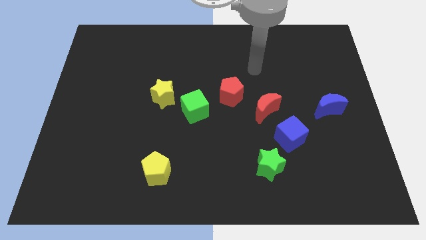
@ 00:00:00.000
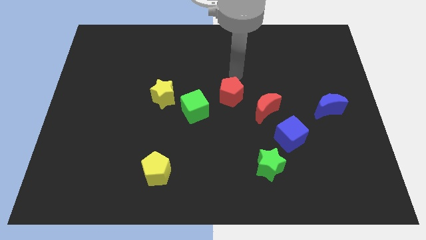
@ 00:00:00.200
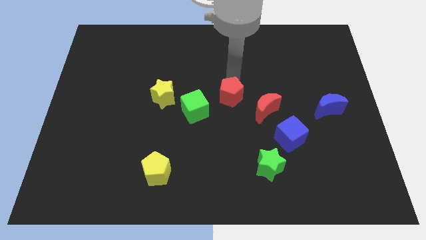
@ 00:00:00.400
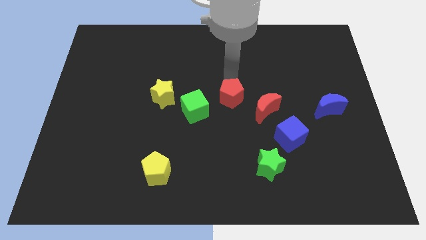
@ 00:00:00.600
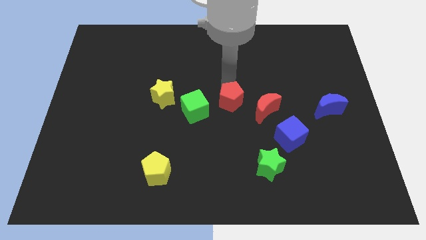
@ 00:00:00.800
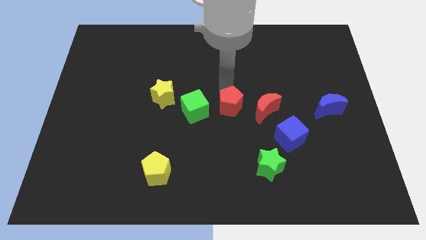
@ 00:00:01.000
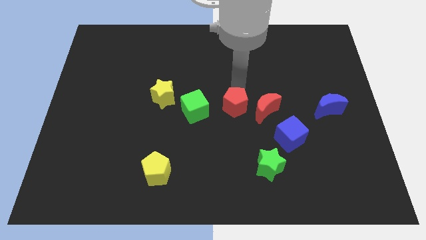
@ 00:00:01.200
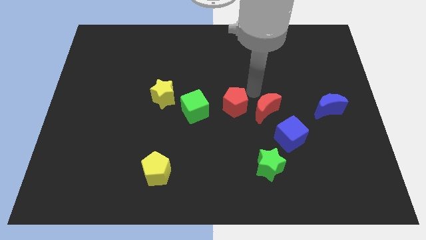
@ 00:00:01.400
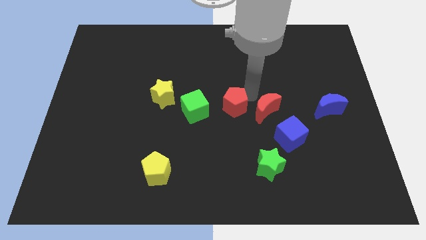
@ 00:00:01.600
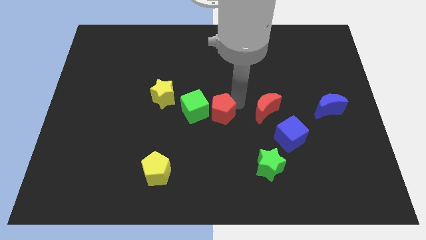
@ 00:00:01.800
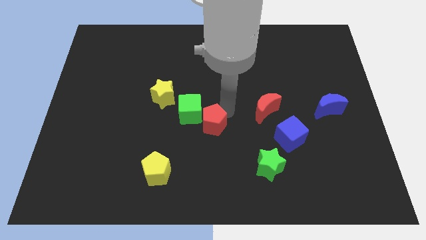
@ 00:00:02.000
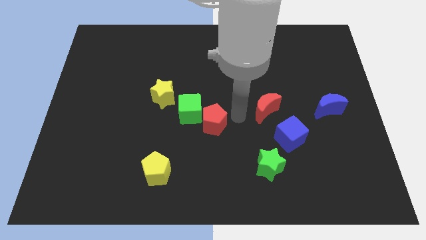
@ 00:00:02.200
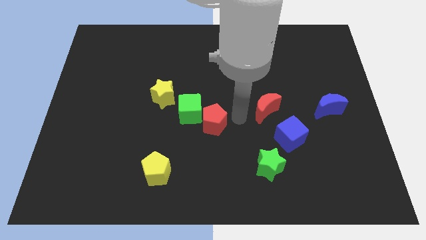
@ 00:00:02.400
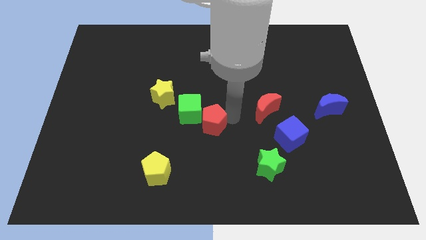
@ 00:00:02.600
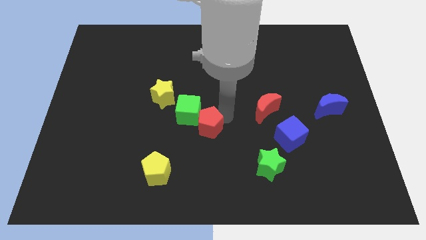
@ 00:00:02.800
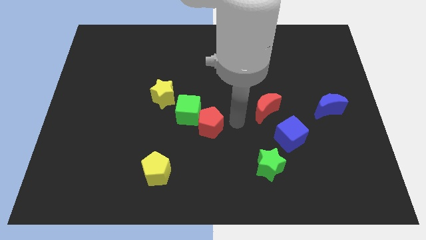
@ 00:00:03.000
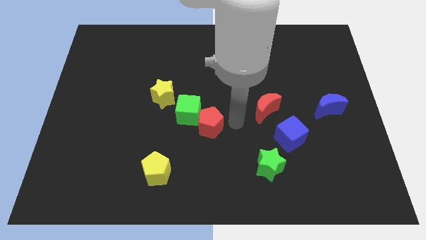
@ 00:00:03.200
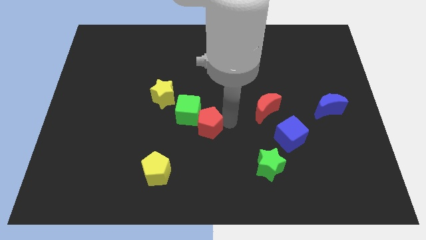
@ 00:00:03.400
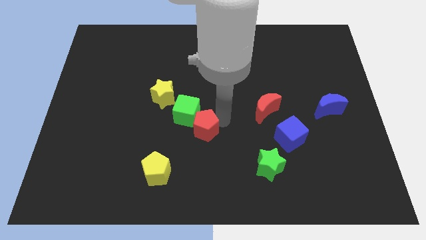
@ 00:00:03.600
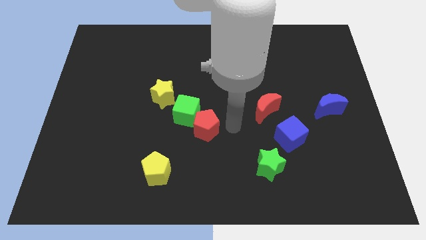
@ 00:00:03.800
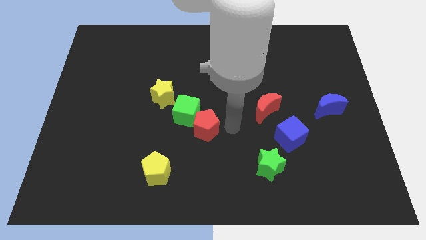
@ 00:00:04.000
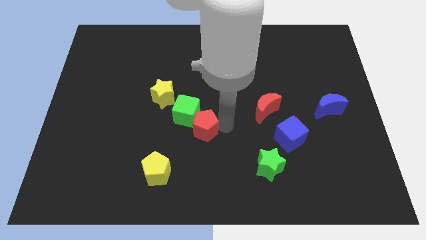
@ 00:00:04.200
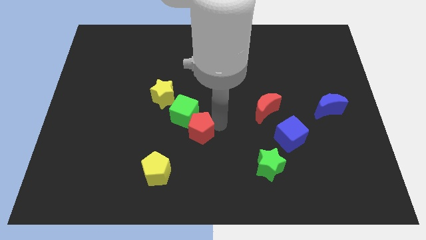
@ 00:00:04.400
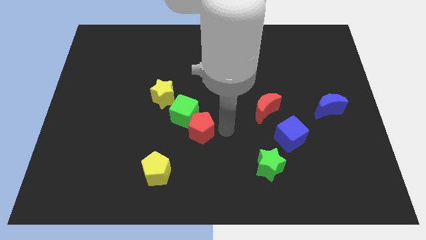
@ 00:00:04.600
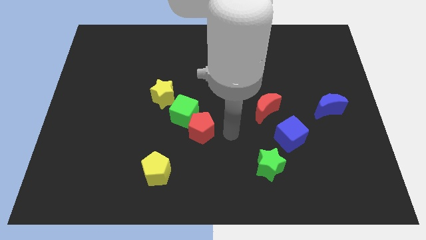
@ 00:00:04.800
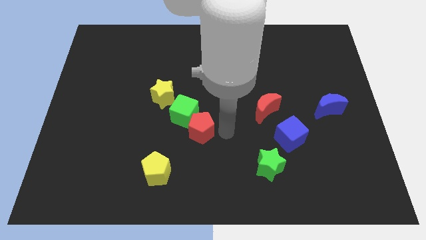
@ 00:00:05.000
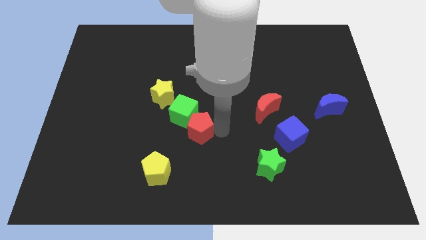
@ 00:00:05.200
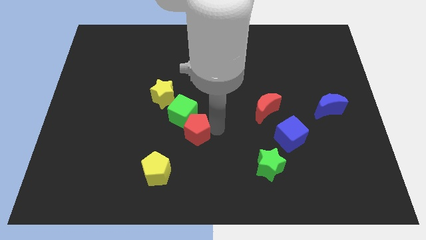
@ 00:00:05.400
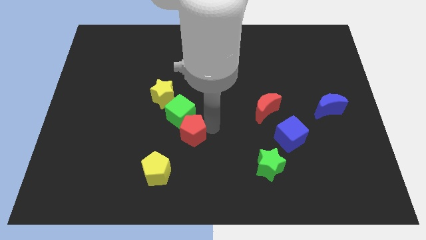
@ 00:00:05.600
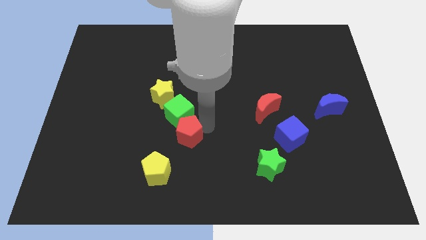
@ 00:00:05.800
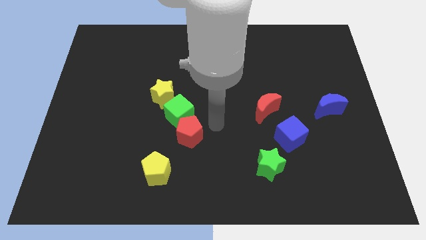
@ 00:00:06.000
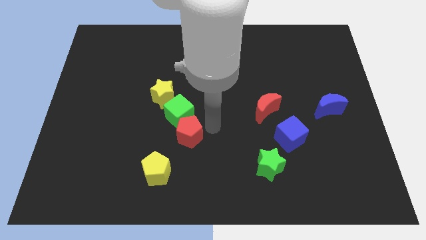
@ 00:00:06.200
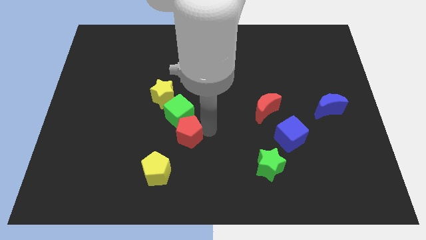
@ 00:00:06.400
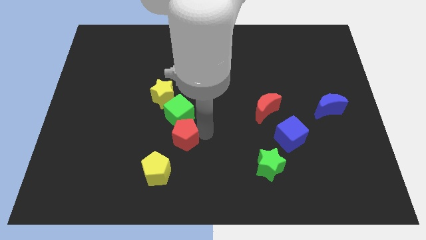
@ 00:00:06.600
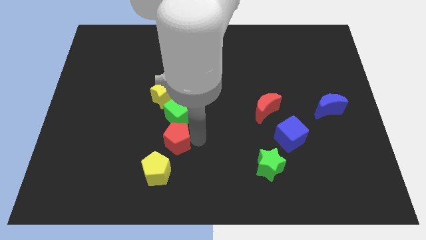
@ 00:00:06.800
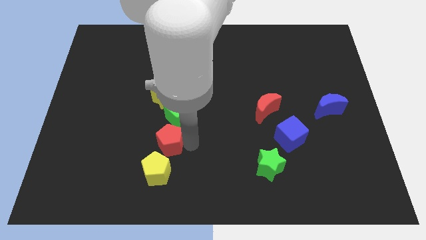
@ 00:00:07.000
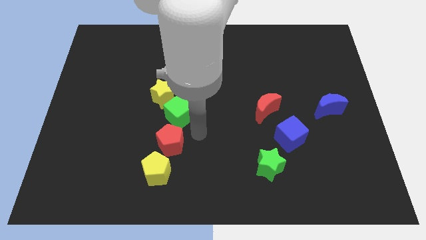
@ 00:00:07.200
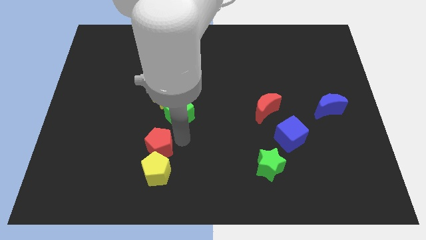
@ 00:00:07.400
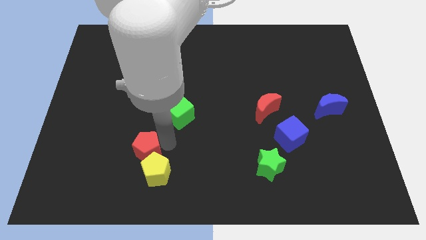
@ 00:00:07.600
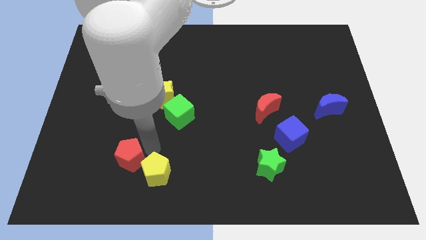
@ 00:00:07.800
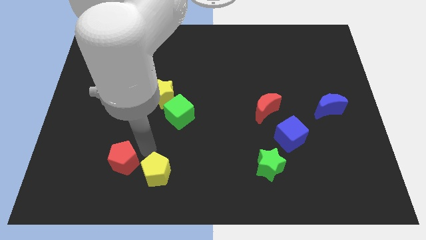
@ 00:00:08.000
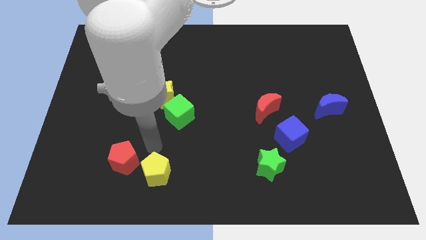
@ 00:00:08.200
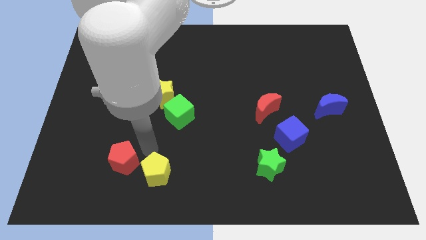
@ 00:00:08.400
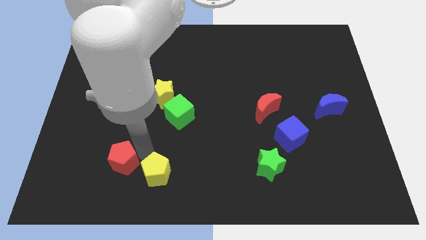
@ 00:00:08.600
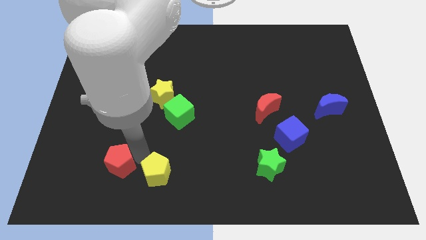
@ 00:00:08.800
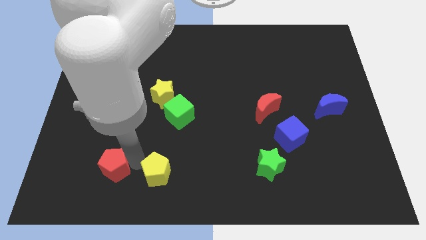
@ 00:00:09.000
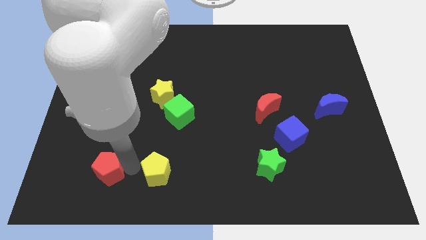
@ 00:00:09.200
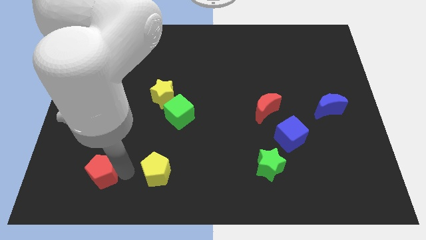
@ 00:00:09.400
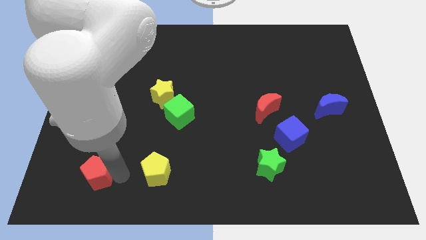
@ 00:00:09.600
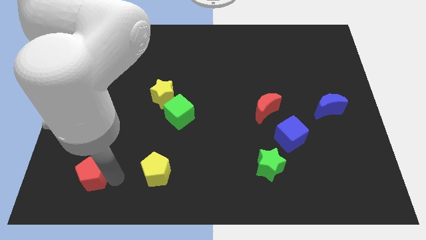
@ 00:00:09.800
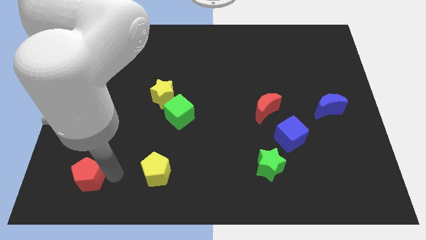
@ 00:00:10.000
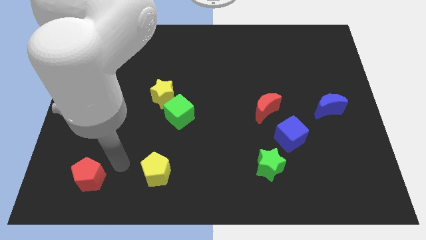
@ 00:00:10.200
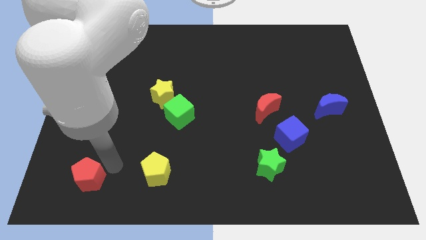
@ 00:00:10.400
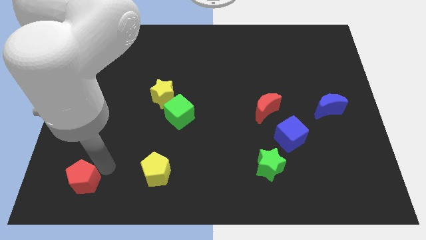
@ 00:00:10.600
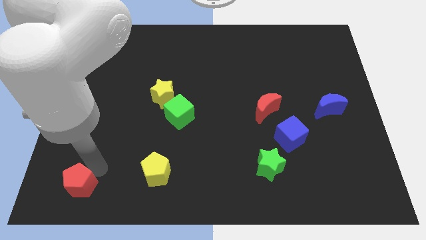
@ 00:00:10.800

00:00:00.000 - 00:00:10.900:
put the red pentagon to the bottom left corner

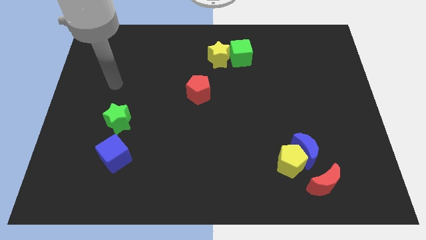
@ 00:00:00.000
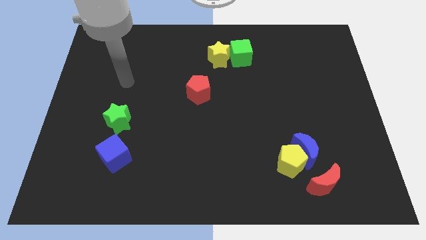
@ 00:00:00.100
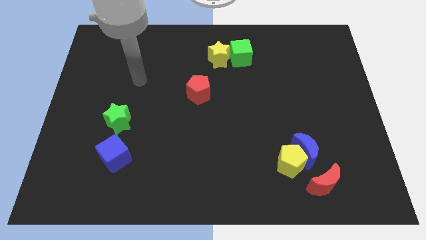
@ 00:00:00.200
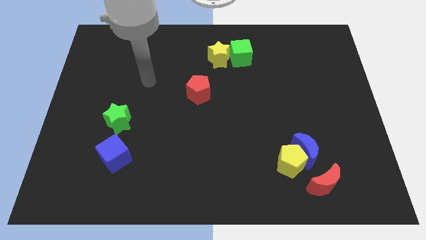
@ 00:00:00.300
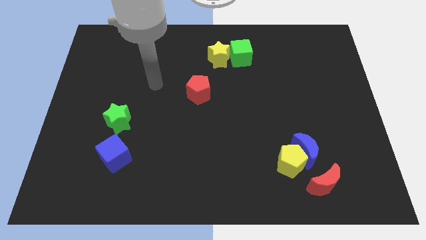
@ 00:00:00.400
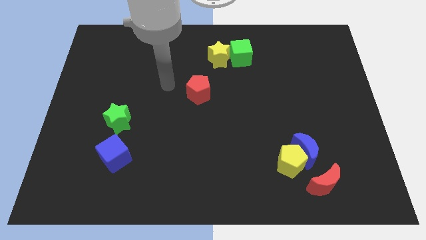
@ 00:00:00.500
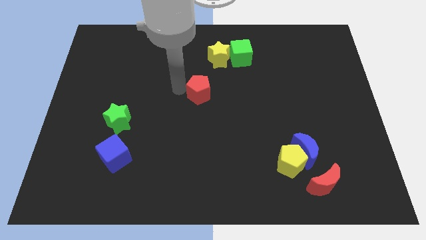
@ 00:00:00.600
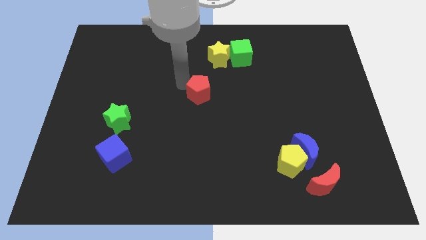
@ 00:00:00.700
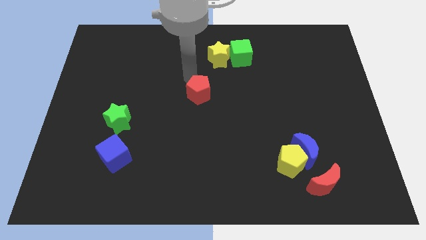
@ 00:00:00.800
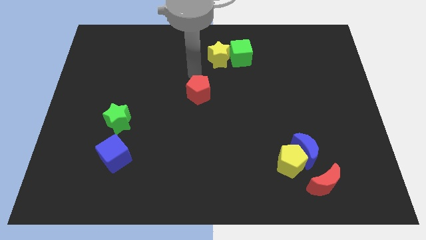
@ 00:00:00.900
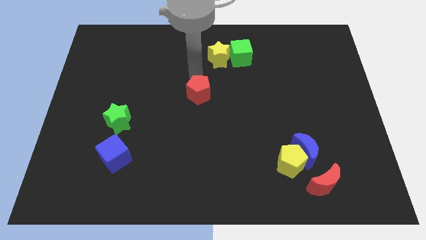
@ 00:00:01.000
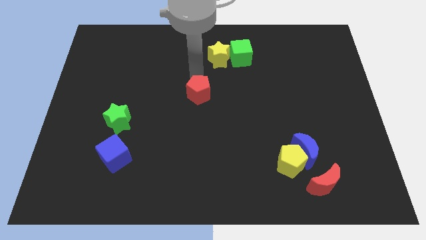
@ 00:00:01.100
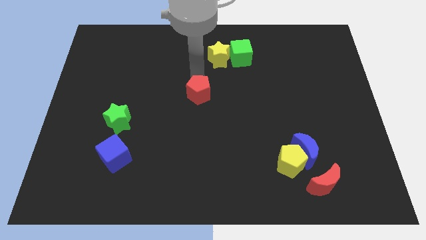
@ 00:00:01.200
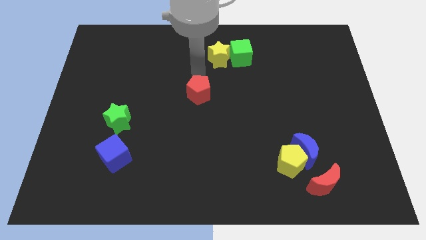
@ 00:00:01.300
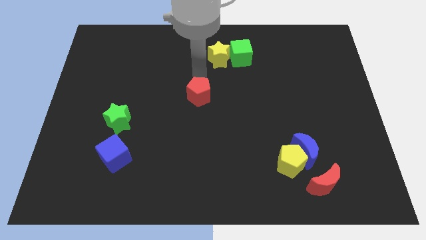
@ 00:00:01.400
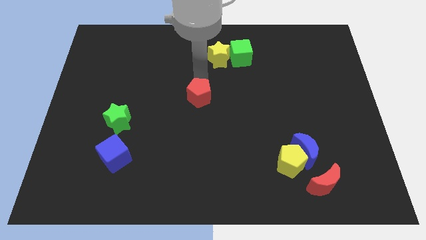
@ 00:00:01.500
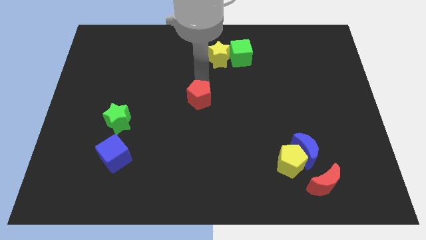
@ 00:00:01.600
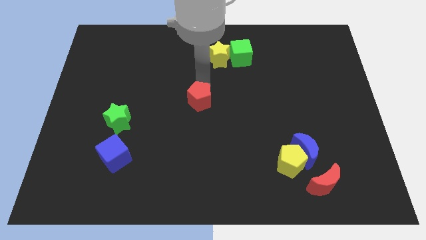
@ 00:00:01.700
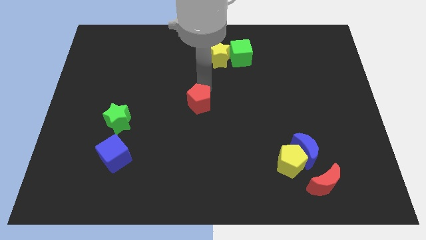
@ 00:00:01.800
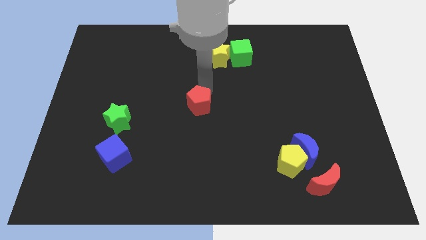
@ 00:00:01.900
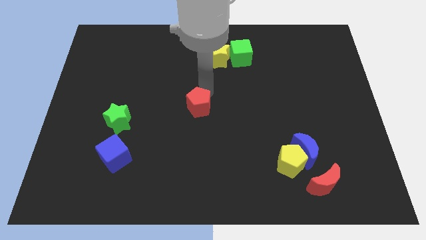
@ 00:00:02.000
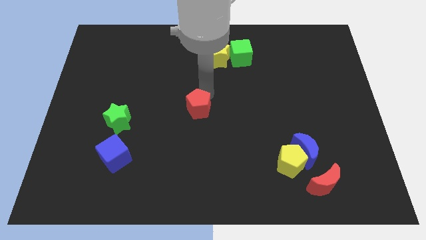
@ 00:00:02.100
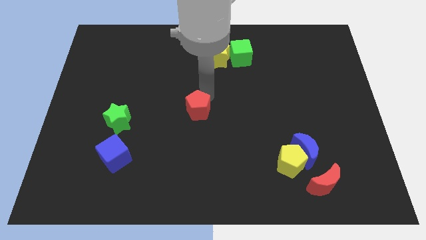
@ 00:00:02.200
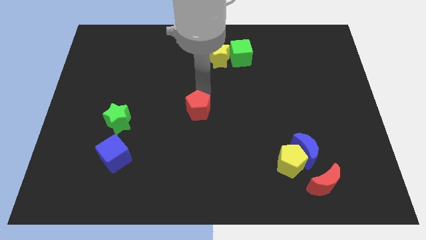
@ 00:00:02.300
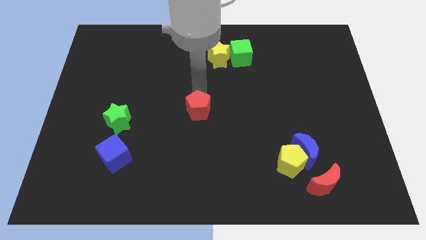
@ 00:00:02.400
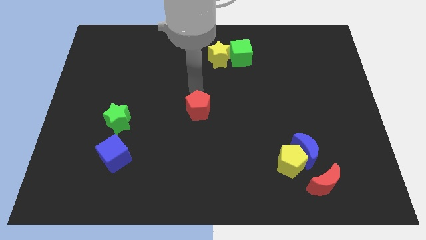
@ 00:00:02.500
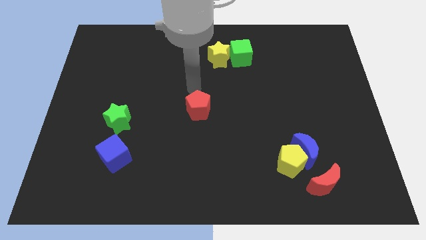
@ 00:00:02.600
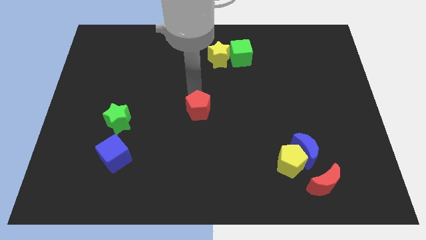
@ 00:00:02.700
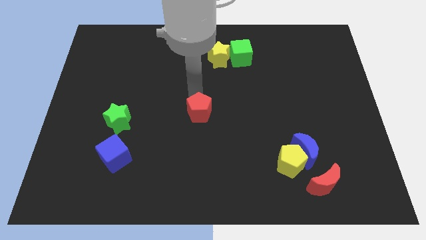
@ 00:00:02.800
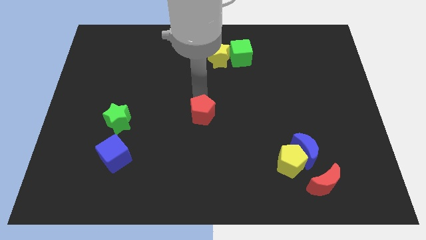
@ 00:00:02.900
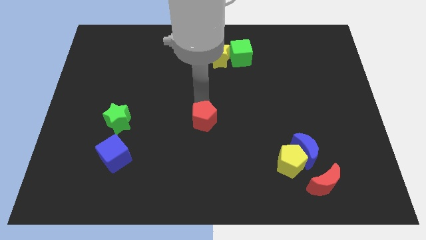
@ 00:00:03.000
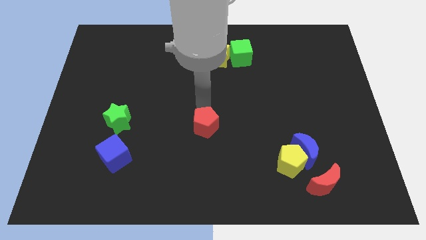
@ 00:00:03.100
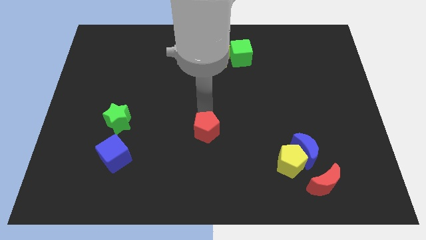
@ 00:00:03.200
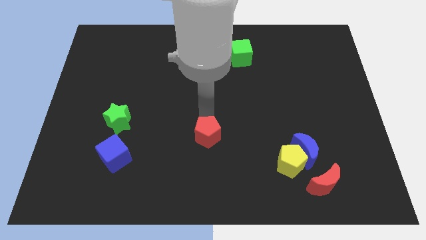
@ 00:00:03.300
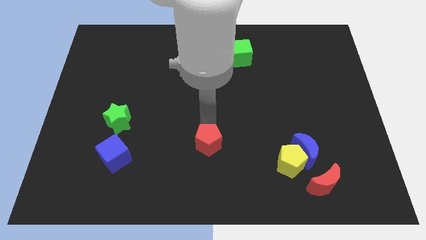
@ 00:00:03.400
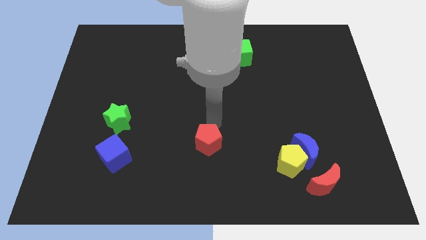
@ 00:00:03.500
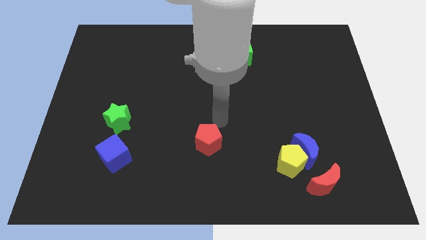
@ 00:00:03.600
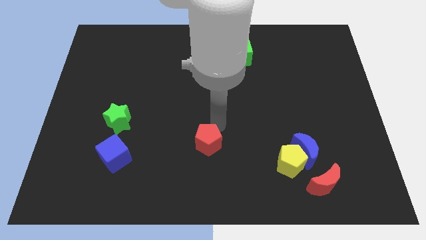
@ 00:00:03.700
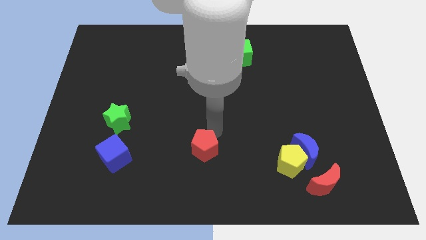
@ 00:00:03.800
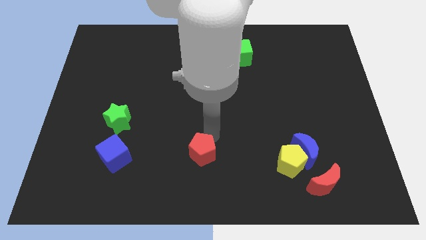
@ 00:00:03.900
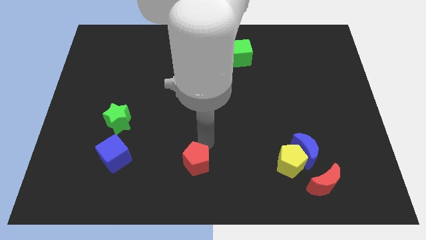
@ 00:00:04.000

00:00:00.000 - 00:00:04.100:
push the red pentagon to the bottom side
